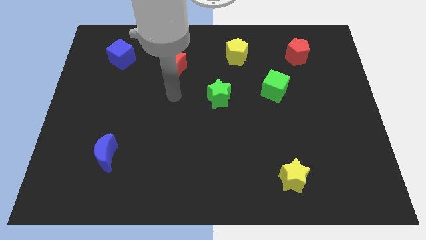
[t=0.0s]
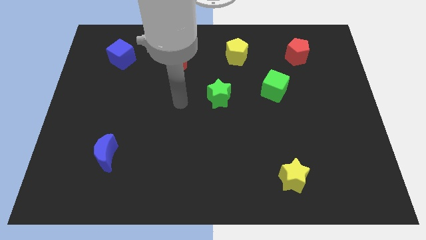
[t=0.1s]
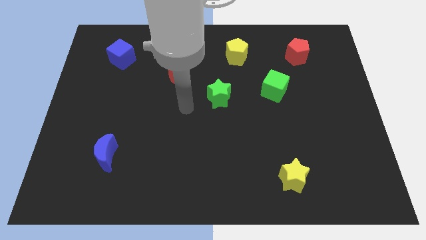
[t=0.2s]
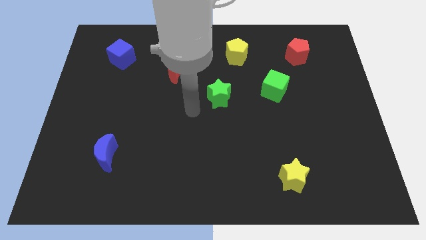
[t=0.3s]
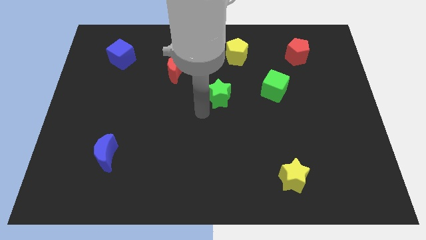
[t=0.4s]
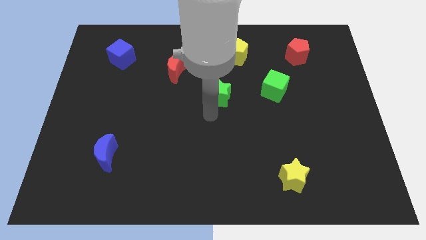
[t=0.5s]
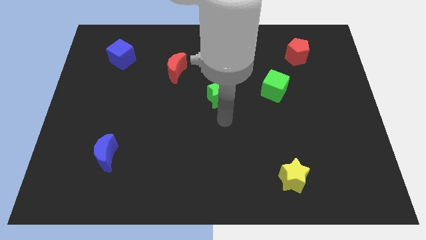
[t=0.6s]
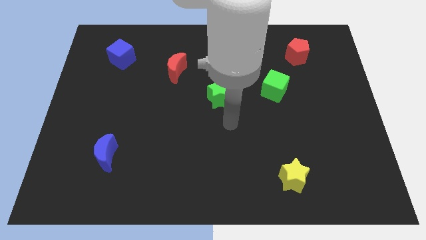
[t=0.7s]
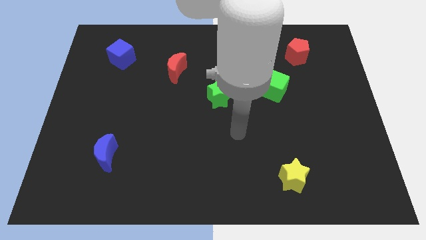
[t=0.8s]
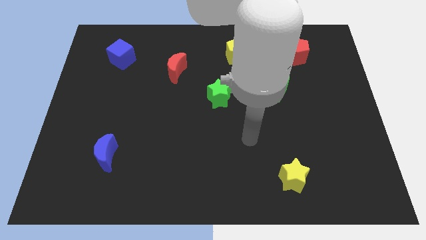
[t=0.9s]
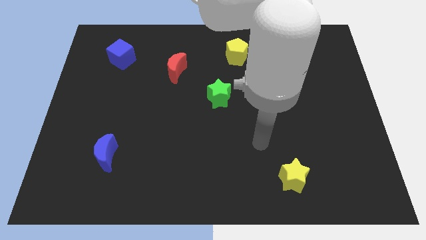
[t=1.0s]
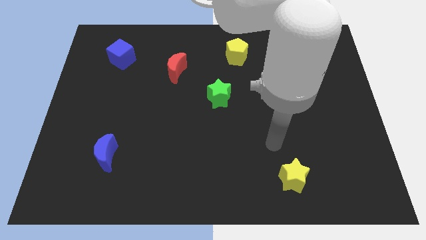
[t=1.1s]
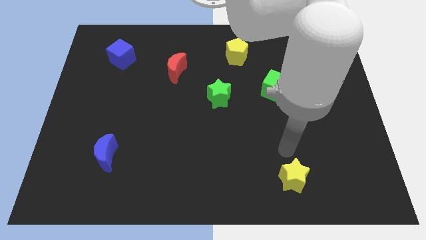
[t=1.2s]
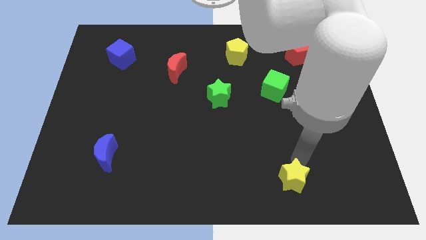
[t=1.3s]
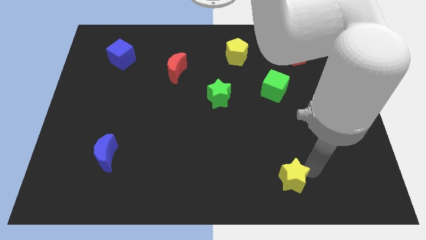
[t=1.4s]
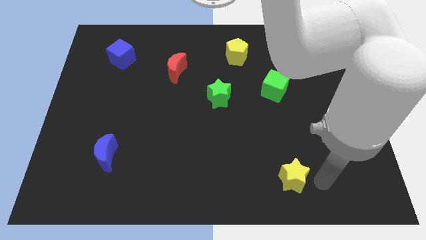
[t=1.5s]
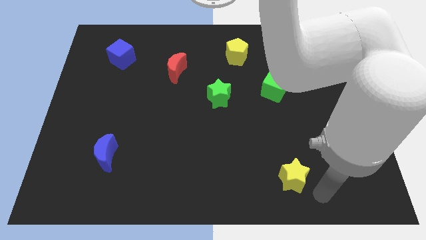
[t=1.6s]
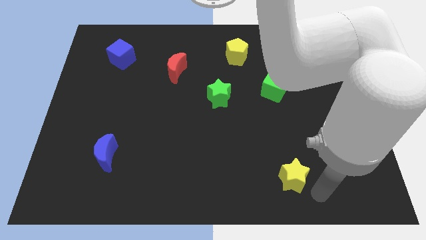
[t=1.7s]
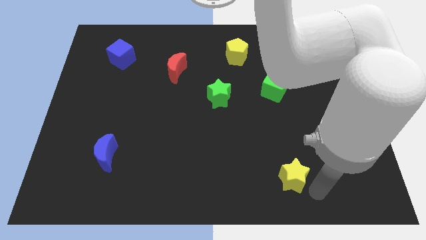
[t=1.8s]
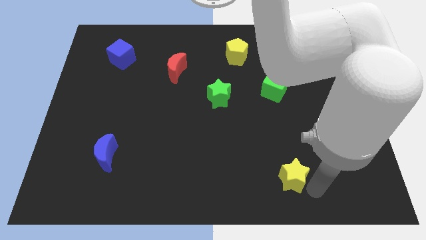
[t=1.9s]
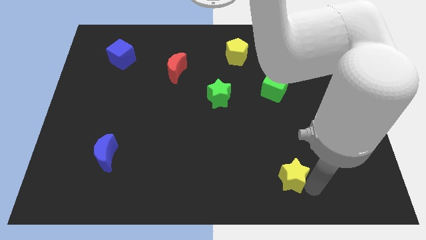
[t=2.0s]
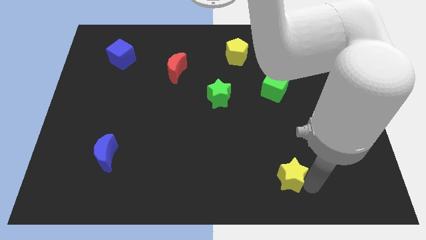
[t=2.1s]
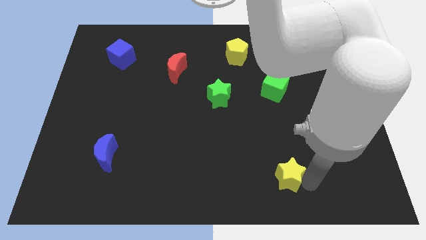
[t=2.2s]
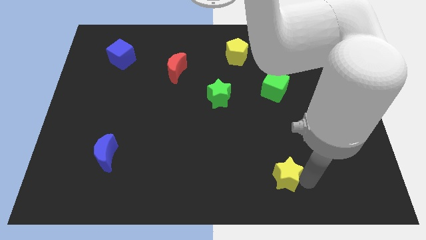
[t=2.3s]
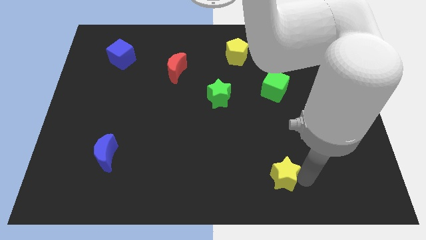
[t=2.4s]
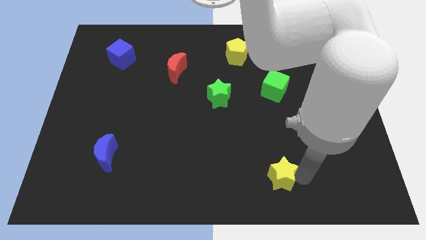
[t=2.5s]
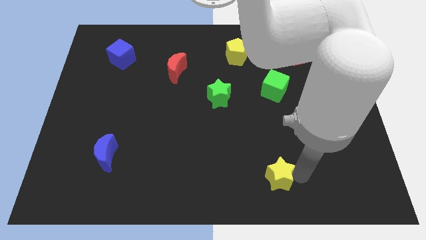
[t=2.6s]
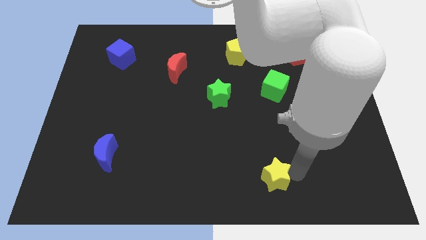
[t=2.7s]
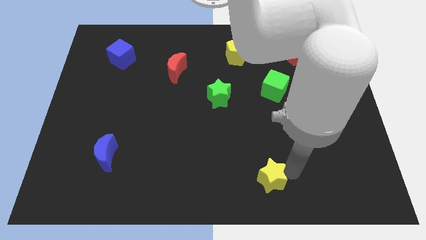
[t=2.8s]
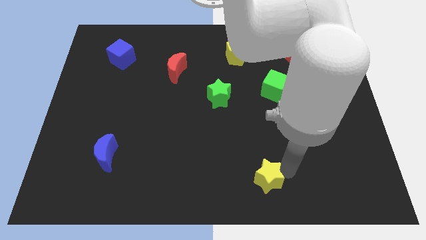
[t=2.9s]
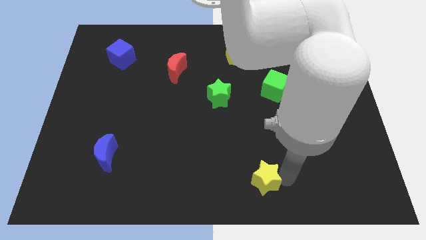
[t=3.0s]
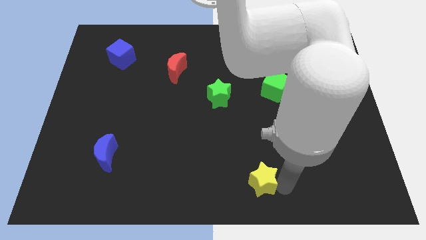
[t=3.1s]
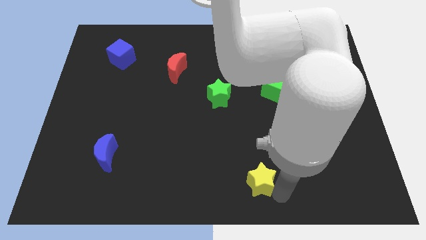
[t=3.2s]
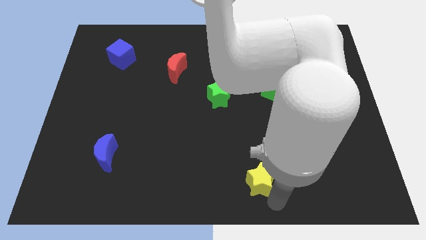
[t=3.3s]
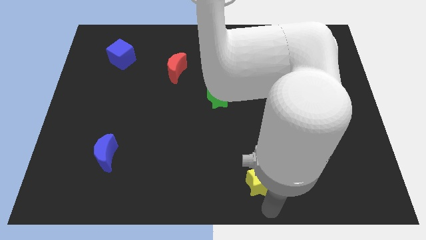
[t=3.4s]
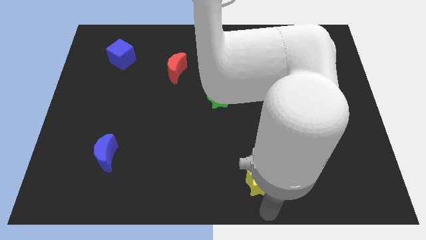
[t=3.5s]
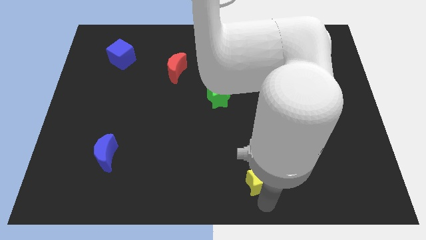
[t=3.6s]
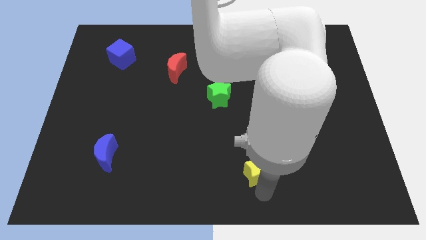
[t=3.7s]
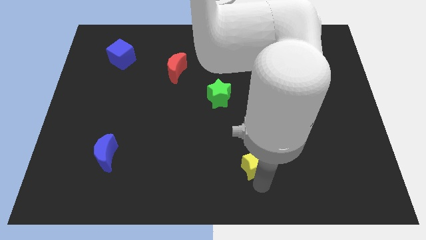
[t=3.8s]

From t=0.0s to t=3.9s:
slide the yellow star a little upwards and then left

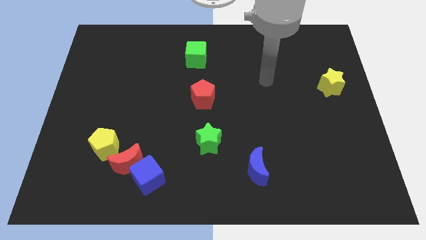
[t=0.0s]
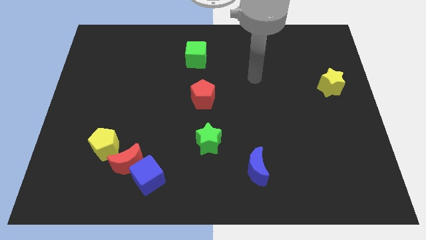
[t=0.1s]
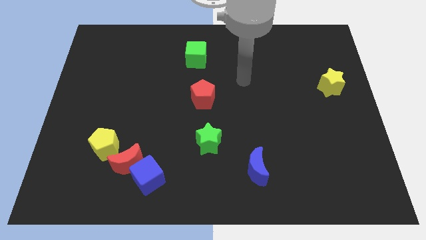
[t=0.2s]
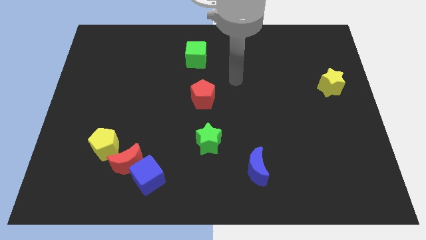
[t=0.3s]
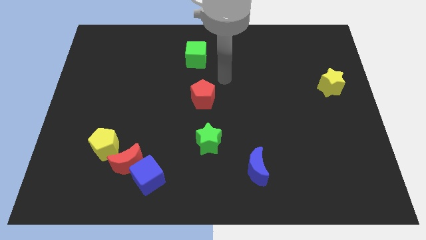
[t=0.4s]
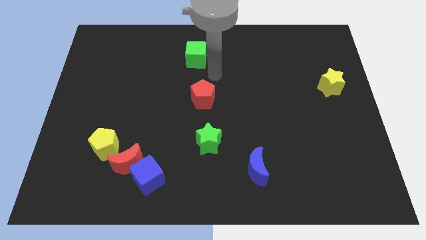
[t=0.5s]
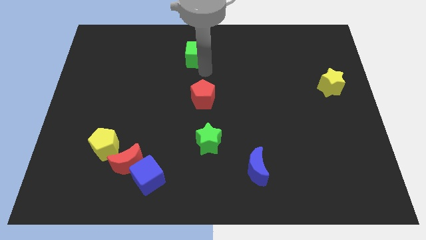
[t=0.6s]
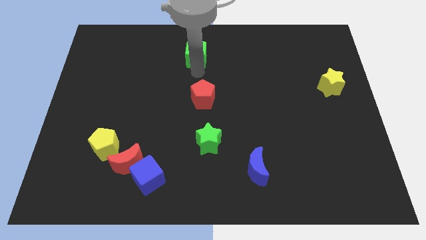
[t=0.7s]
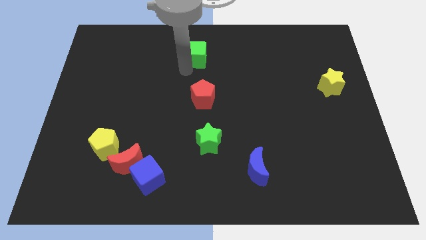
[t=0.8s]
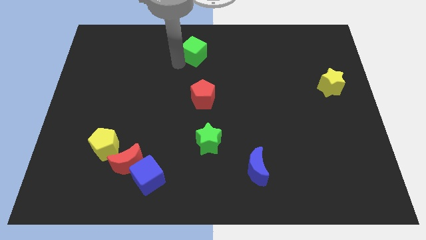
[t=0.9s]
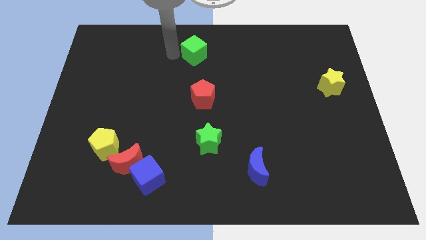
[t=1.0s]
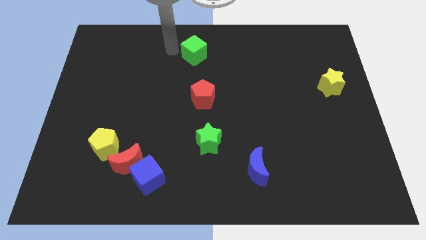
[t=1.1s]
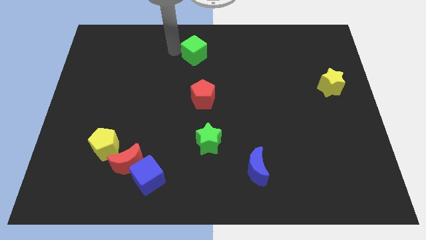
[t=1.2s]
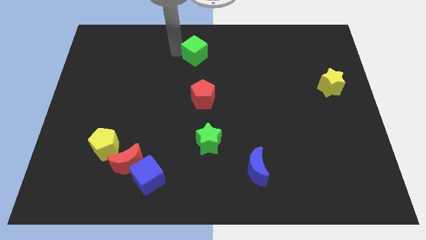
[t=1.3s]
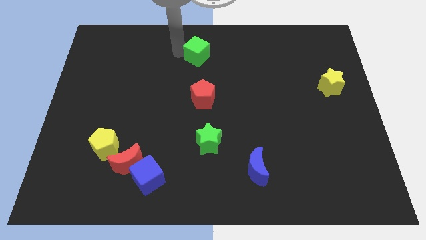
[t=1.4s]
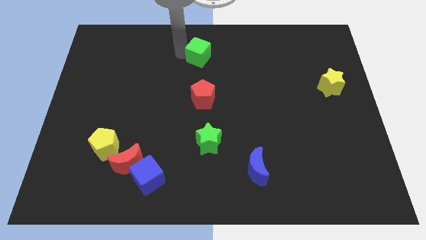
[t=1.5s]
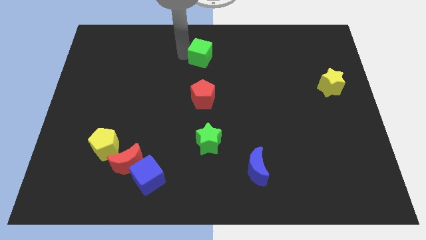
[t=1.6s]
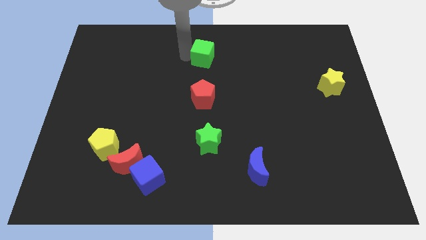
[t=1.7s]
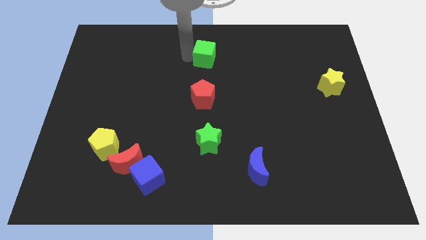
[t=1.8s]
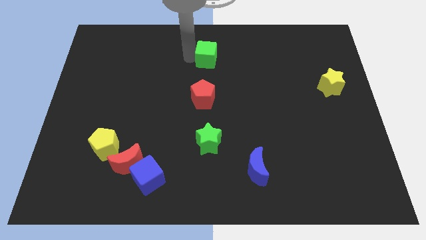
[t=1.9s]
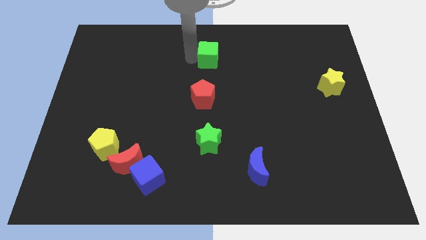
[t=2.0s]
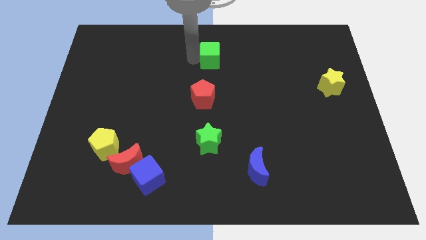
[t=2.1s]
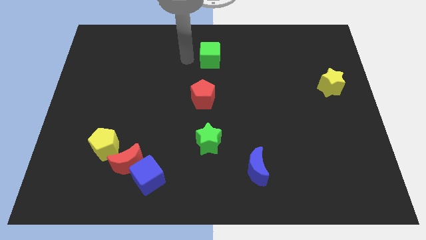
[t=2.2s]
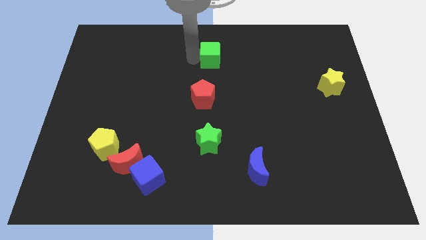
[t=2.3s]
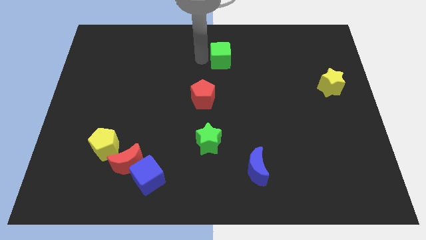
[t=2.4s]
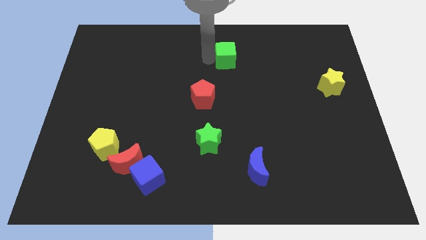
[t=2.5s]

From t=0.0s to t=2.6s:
push the green cube somewhat right

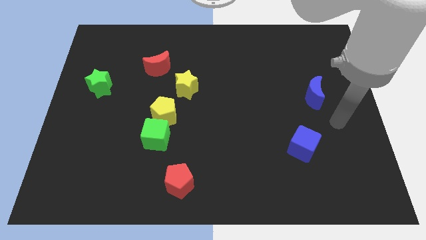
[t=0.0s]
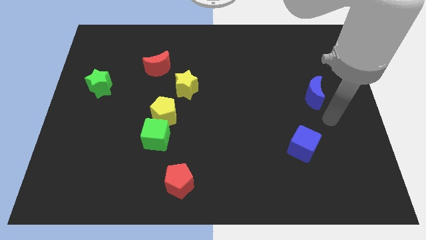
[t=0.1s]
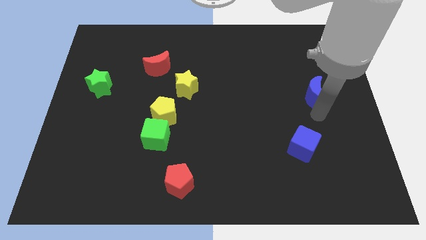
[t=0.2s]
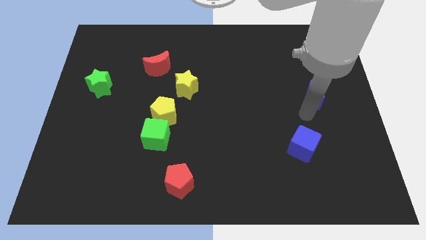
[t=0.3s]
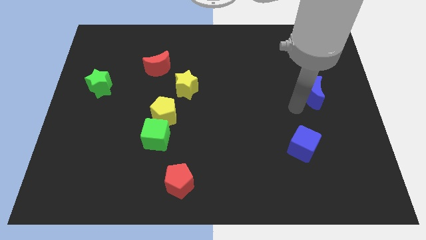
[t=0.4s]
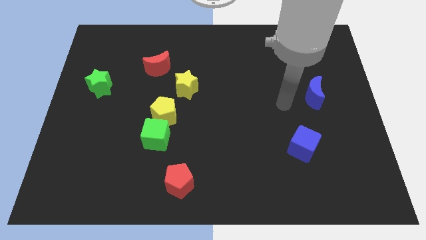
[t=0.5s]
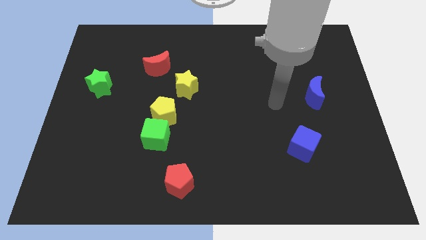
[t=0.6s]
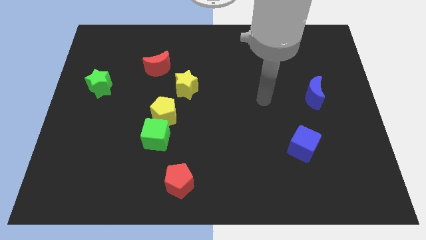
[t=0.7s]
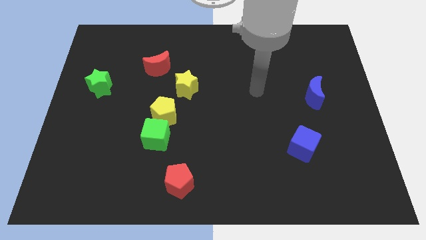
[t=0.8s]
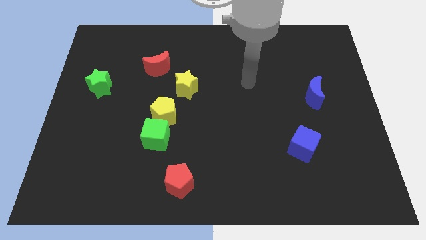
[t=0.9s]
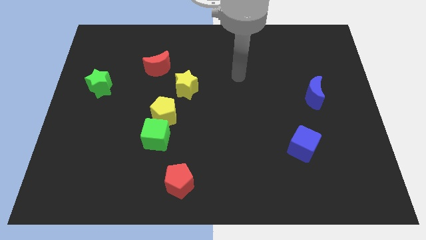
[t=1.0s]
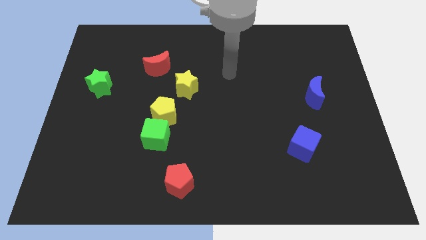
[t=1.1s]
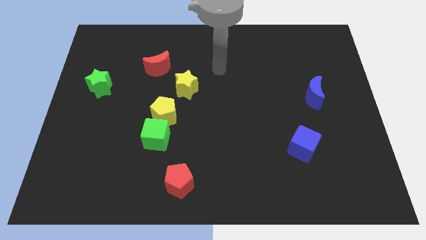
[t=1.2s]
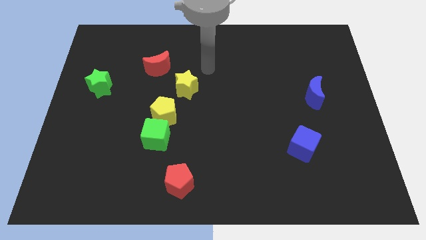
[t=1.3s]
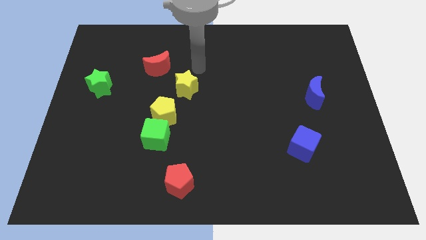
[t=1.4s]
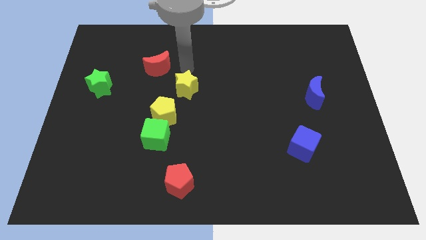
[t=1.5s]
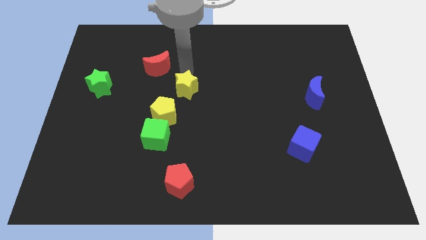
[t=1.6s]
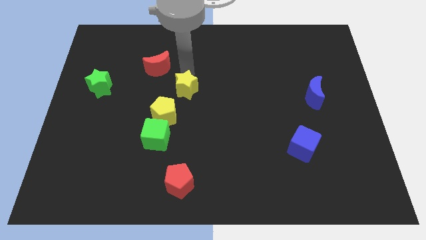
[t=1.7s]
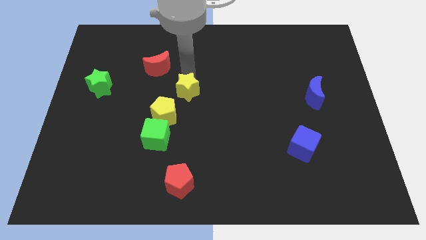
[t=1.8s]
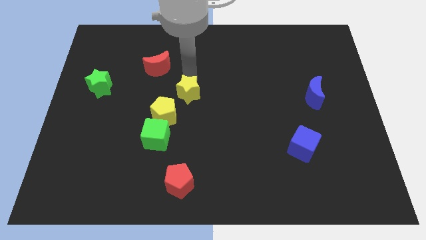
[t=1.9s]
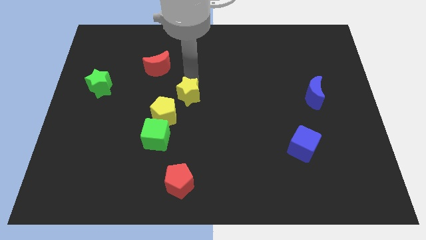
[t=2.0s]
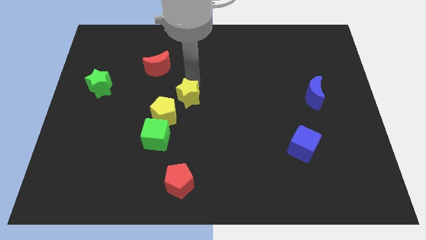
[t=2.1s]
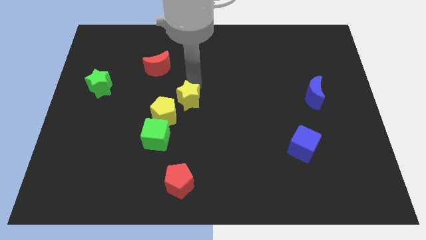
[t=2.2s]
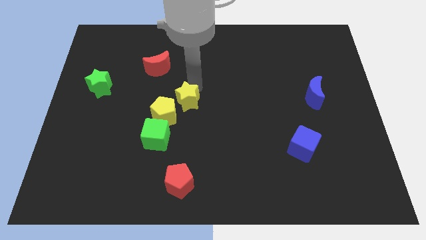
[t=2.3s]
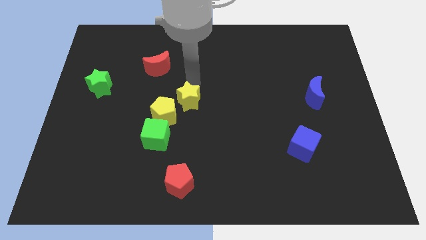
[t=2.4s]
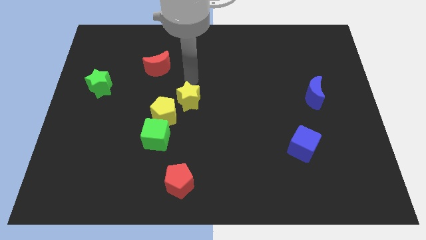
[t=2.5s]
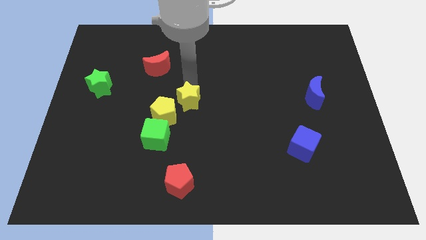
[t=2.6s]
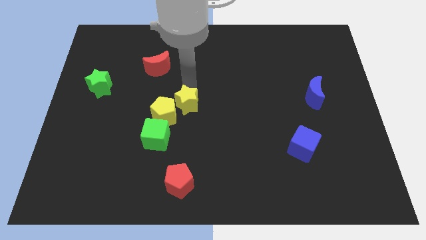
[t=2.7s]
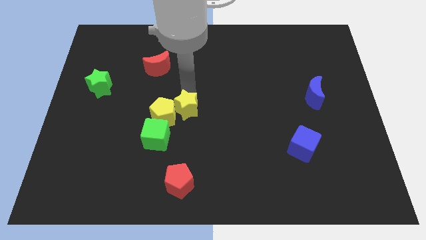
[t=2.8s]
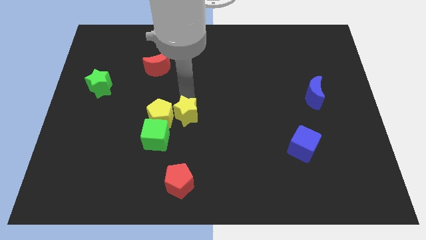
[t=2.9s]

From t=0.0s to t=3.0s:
move the yellow star downwards a bit
